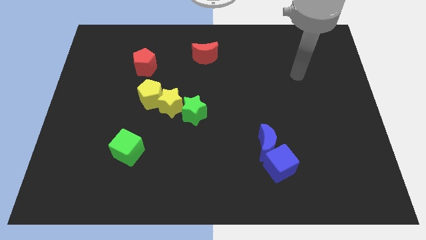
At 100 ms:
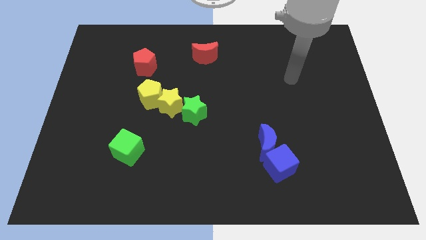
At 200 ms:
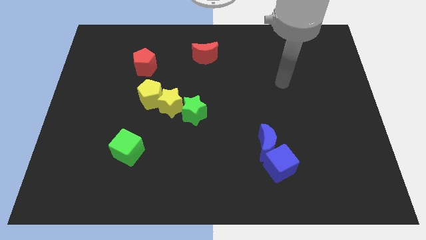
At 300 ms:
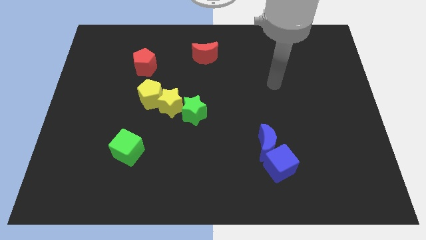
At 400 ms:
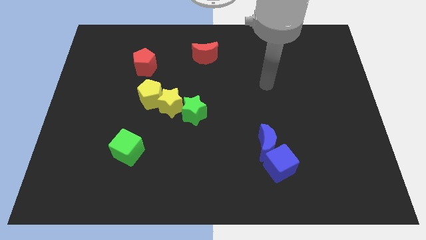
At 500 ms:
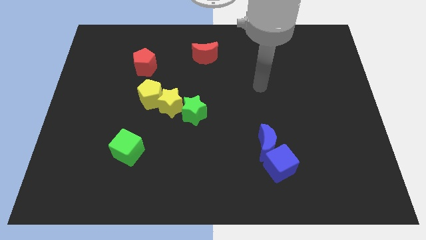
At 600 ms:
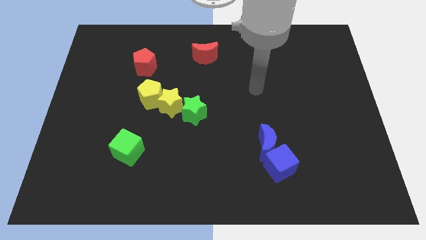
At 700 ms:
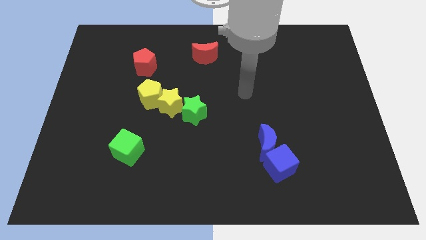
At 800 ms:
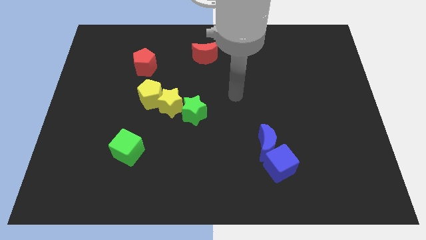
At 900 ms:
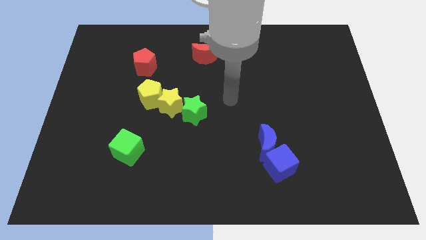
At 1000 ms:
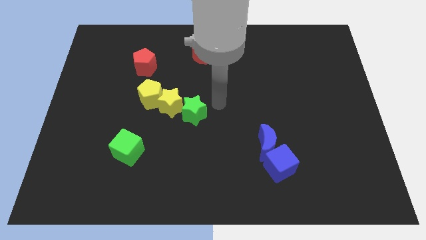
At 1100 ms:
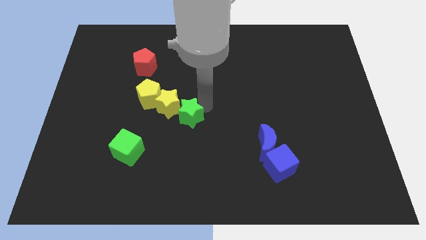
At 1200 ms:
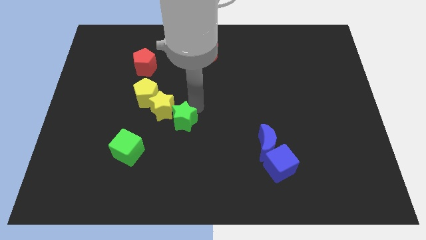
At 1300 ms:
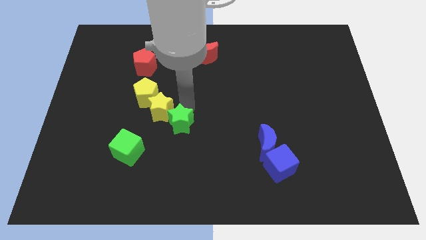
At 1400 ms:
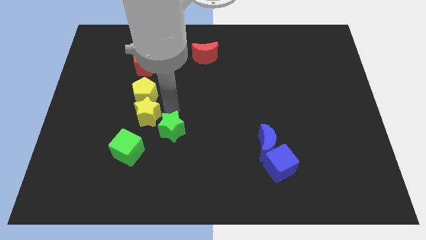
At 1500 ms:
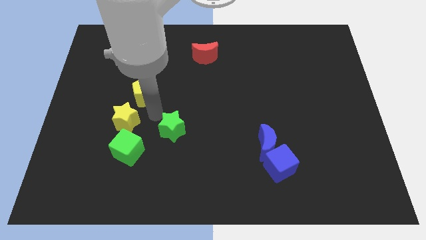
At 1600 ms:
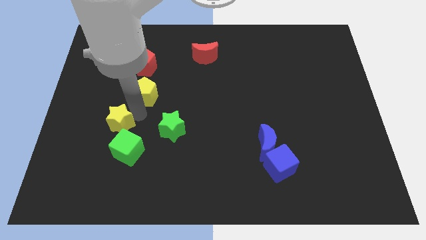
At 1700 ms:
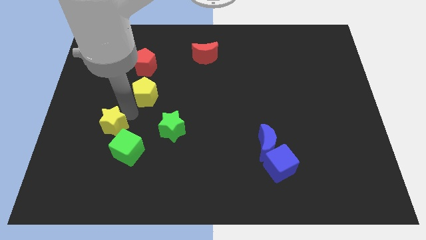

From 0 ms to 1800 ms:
pull the yellow pentagon apart from the yellow star

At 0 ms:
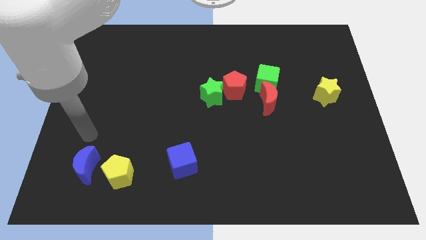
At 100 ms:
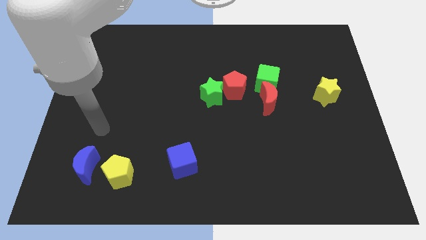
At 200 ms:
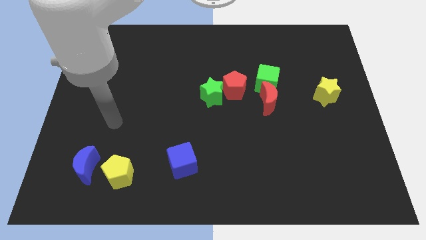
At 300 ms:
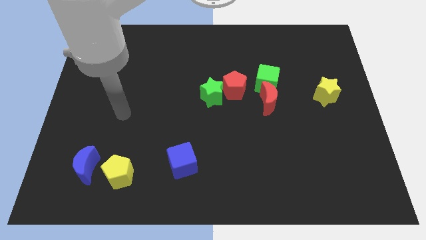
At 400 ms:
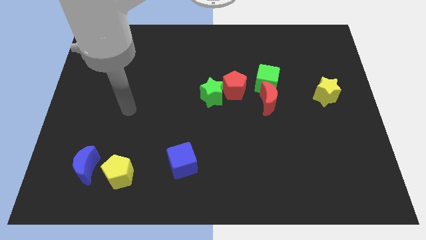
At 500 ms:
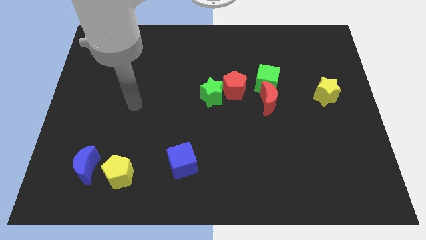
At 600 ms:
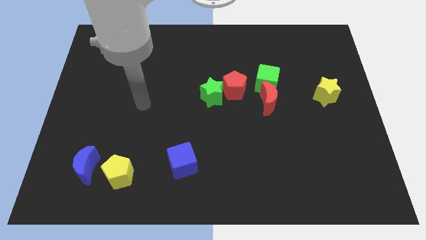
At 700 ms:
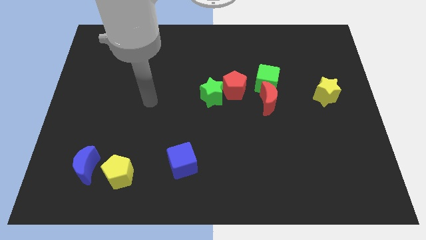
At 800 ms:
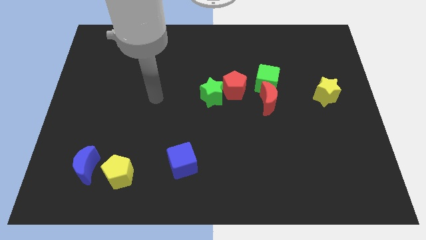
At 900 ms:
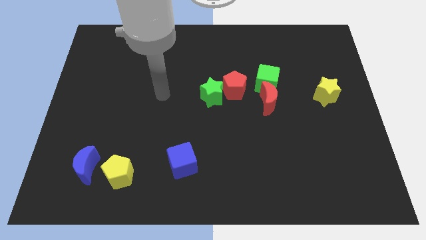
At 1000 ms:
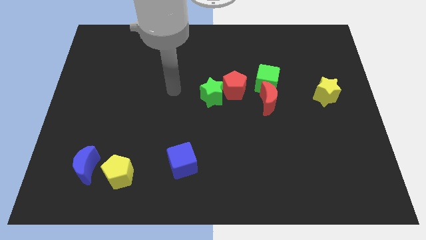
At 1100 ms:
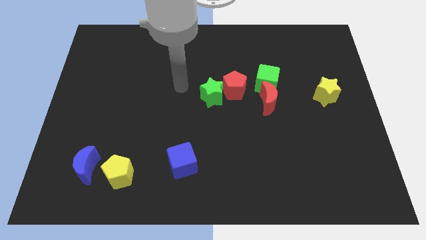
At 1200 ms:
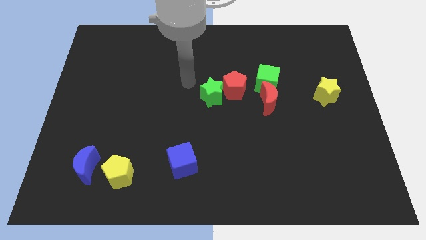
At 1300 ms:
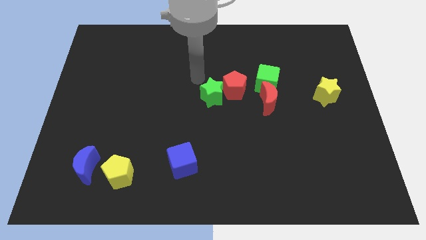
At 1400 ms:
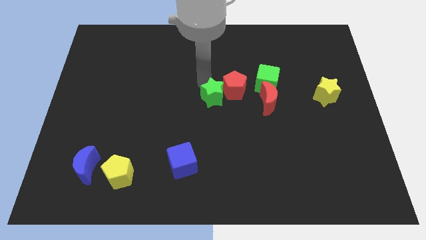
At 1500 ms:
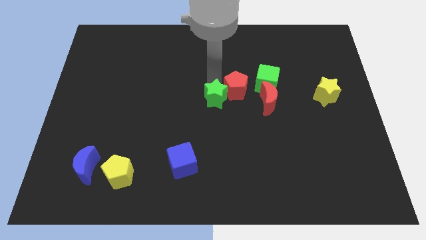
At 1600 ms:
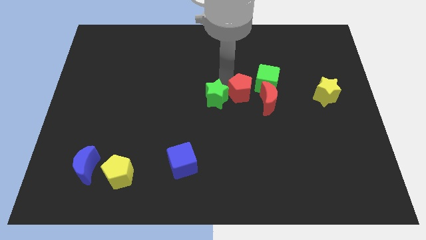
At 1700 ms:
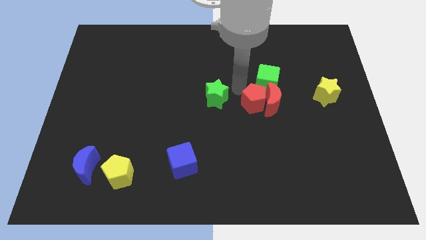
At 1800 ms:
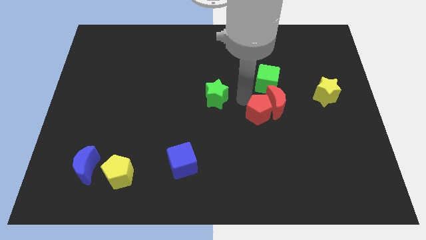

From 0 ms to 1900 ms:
separate the green star from the red pentagon

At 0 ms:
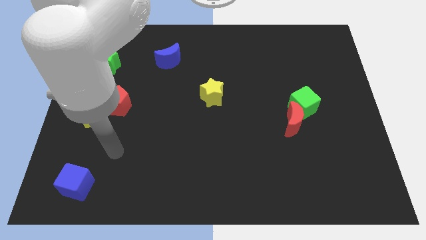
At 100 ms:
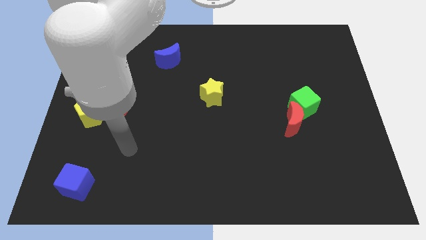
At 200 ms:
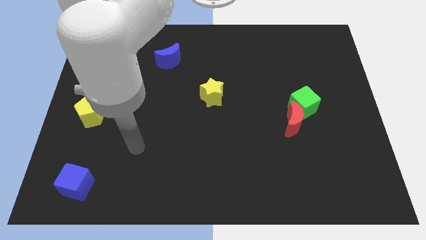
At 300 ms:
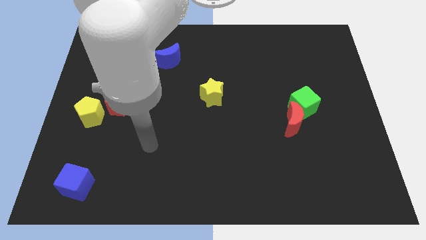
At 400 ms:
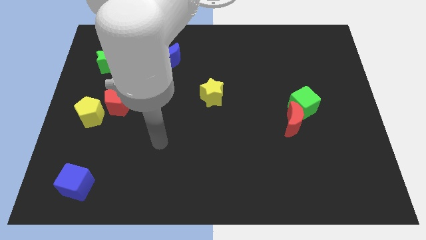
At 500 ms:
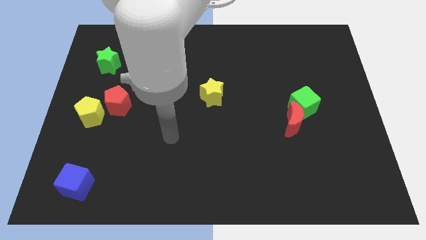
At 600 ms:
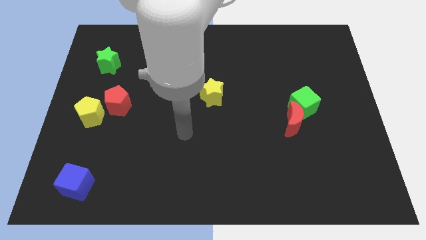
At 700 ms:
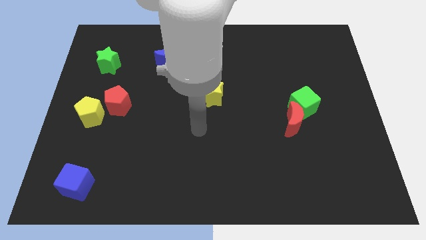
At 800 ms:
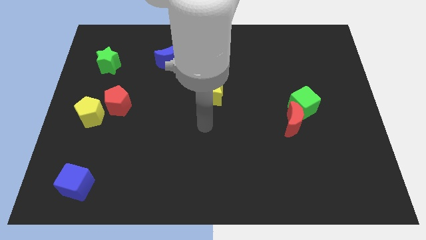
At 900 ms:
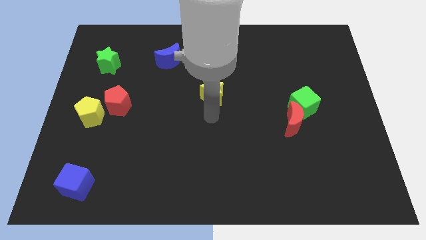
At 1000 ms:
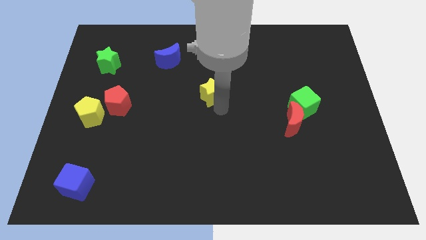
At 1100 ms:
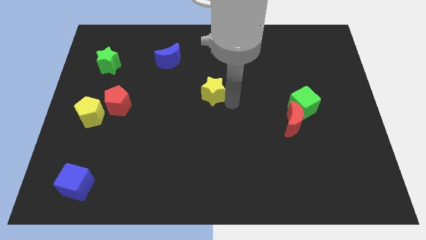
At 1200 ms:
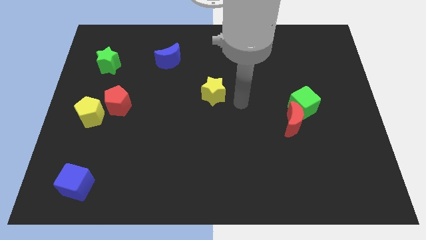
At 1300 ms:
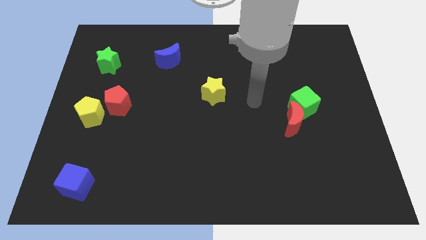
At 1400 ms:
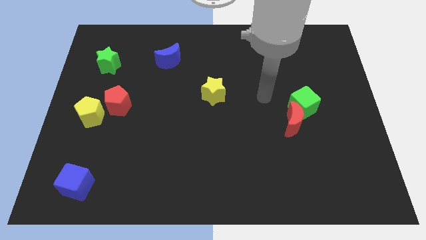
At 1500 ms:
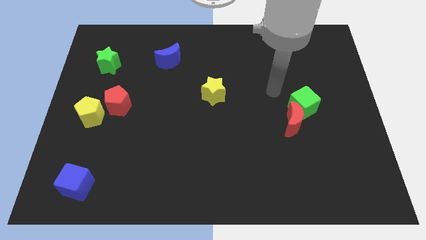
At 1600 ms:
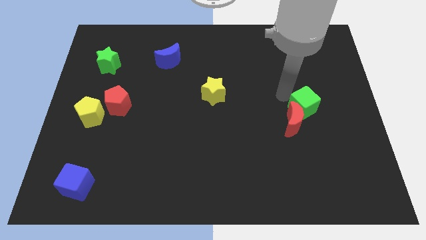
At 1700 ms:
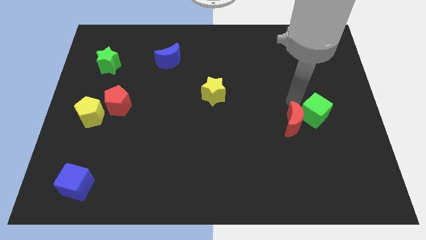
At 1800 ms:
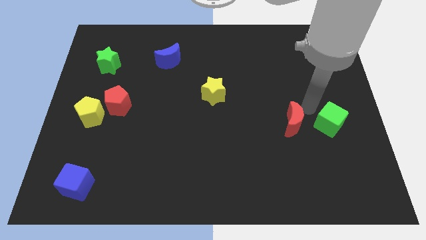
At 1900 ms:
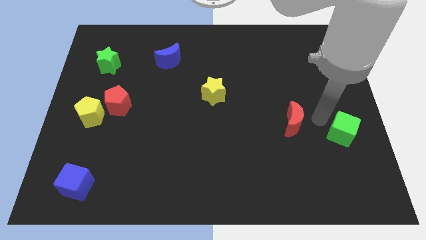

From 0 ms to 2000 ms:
separate the red moon from the green cube

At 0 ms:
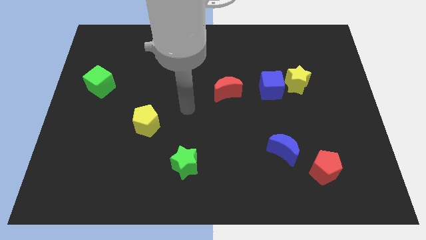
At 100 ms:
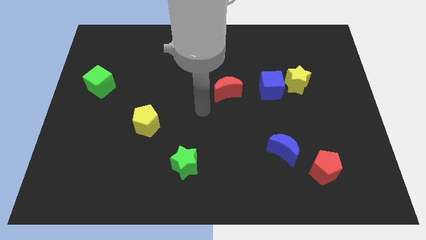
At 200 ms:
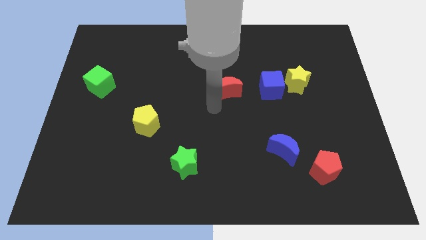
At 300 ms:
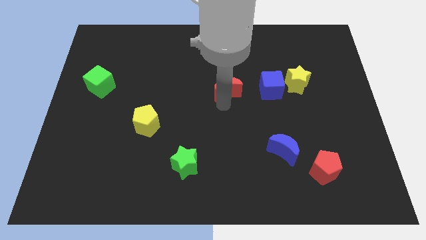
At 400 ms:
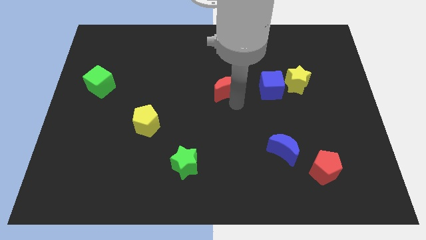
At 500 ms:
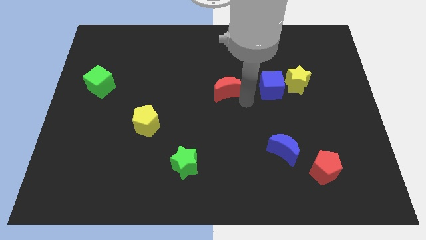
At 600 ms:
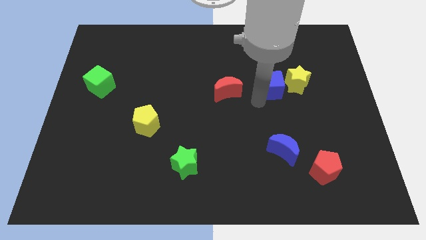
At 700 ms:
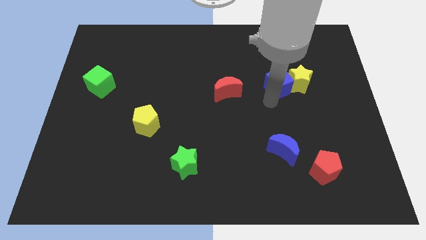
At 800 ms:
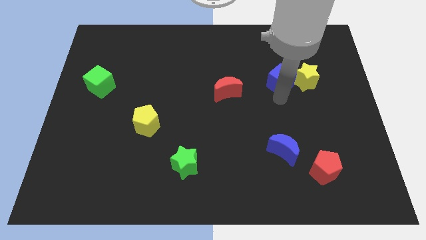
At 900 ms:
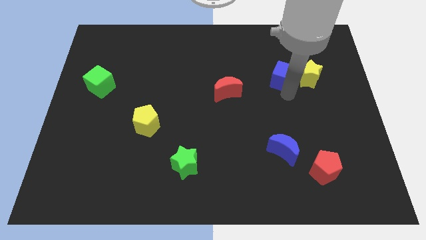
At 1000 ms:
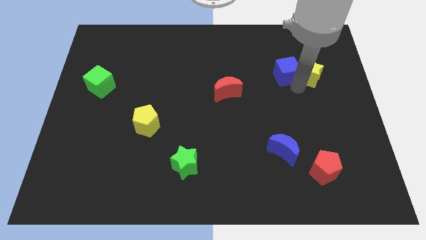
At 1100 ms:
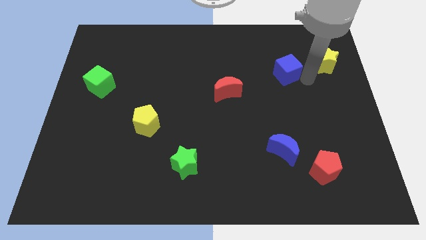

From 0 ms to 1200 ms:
separate the blue cube from the yellow star

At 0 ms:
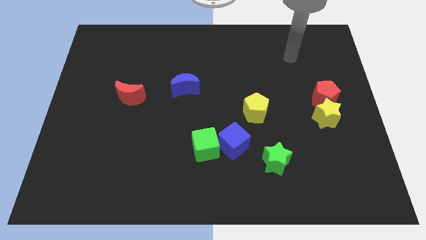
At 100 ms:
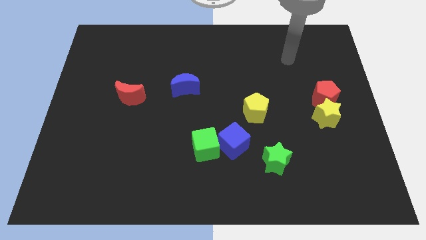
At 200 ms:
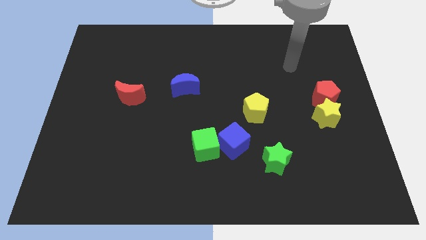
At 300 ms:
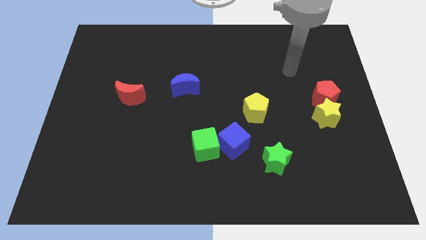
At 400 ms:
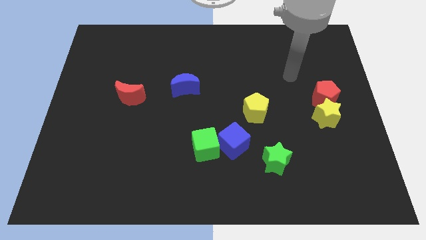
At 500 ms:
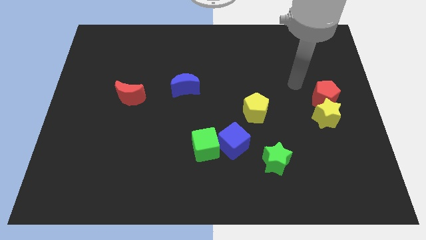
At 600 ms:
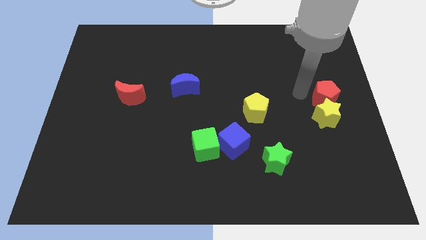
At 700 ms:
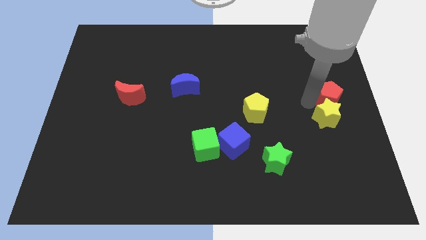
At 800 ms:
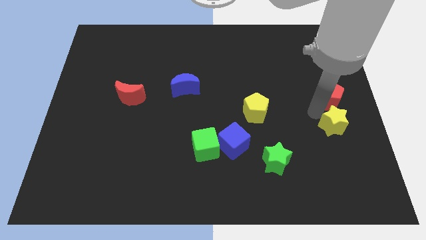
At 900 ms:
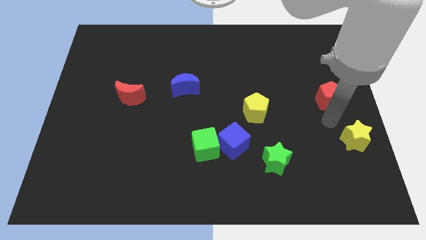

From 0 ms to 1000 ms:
pull the red pentagon apart from the yellow star

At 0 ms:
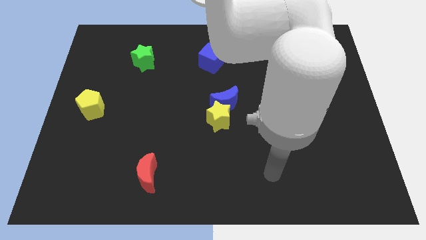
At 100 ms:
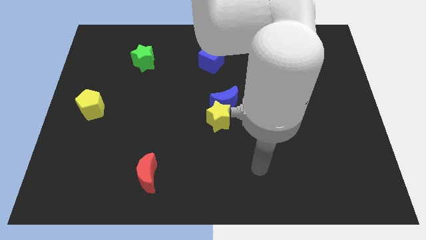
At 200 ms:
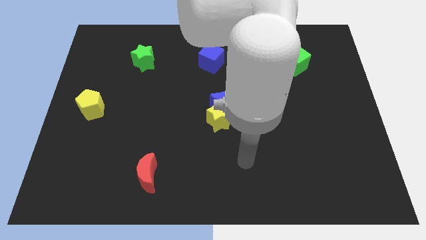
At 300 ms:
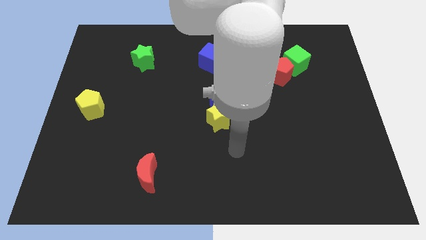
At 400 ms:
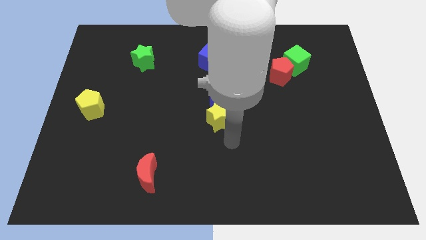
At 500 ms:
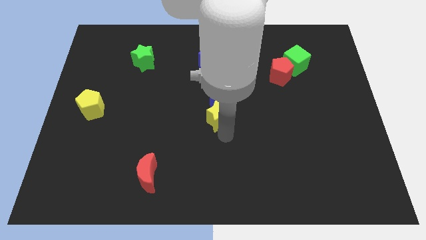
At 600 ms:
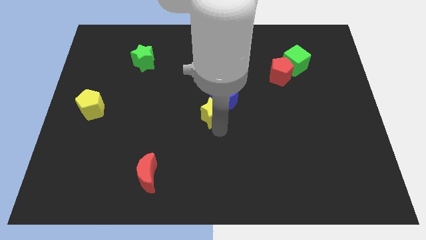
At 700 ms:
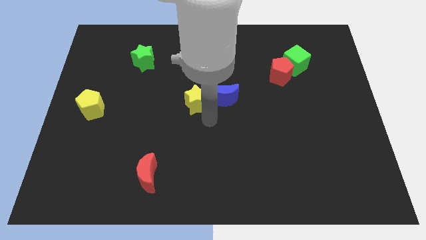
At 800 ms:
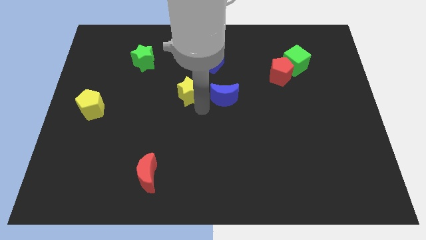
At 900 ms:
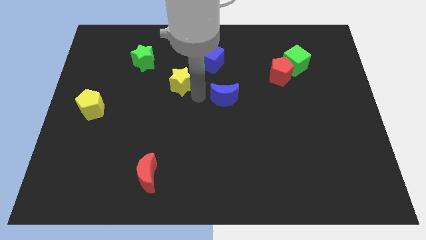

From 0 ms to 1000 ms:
separate the blue moon from the yellow star

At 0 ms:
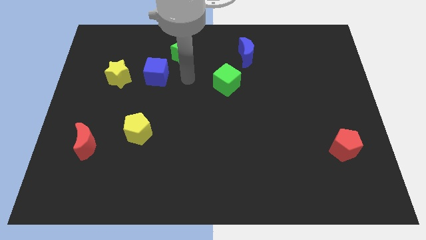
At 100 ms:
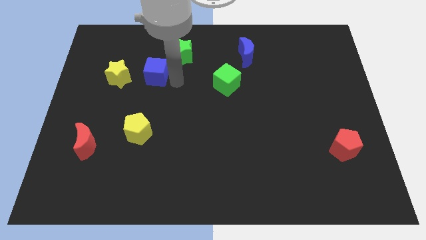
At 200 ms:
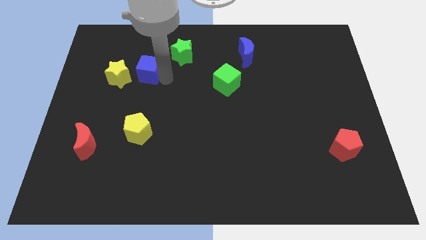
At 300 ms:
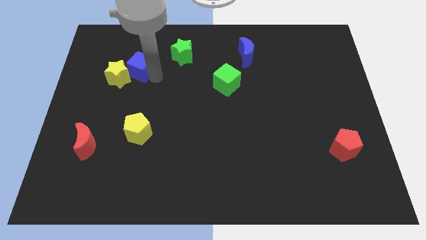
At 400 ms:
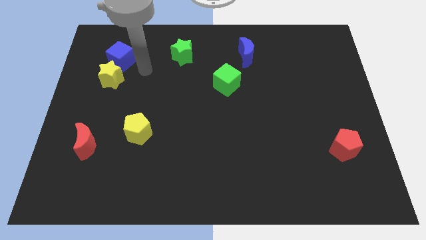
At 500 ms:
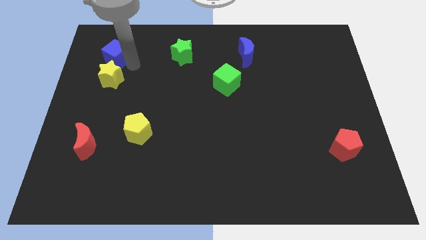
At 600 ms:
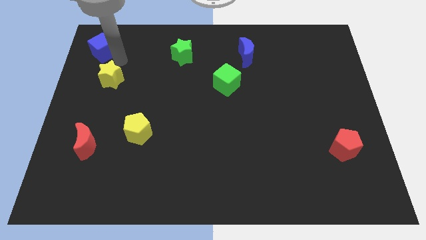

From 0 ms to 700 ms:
pull the yellow star apart from the blue cube
